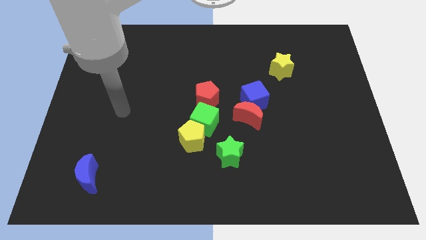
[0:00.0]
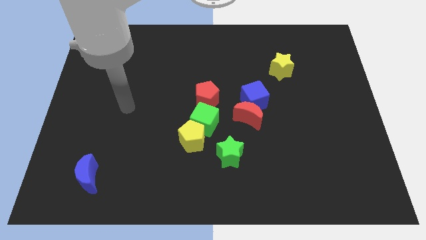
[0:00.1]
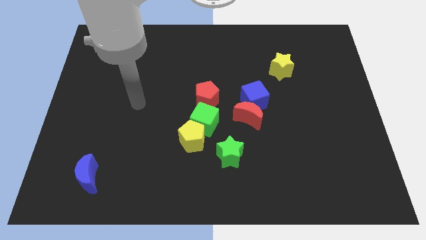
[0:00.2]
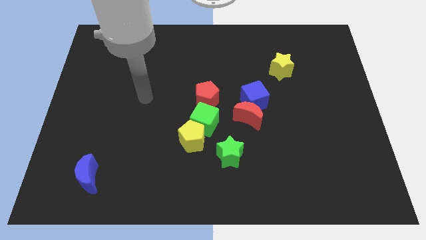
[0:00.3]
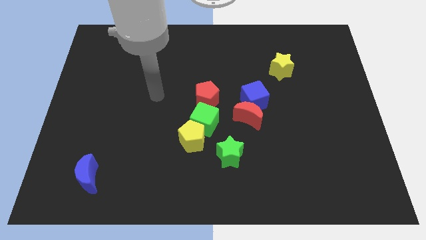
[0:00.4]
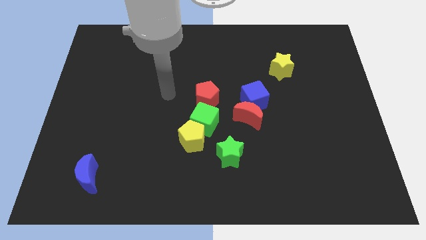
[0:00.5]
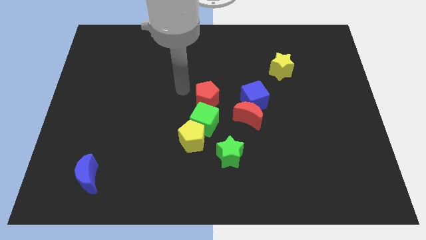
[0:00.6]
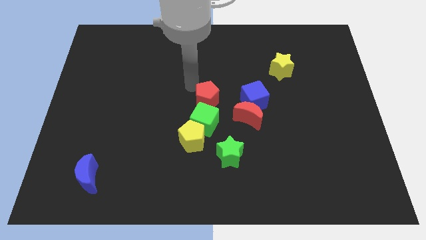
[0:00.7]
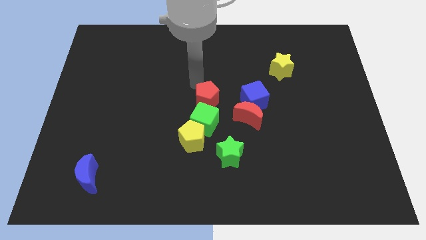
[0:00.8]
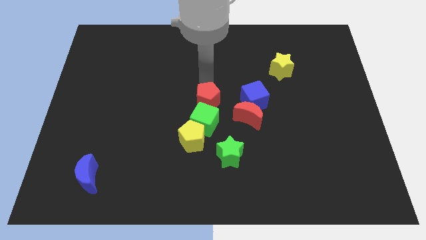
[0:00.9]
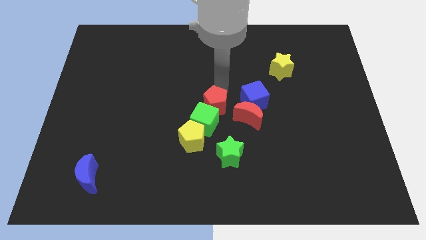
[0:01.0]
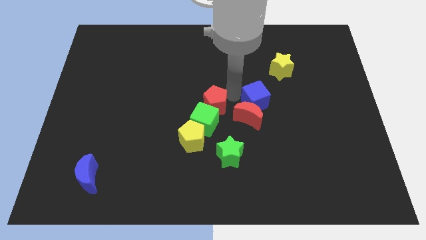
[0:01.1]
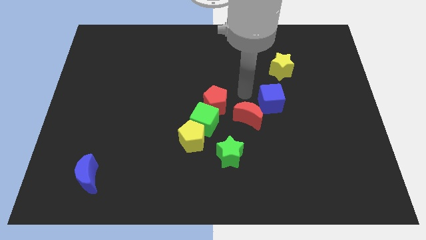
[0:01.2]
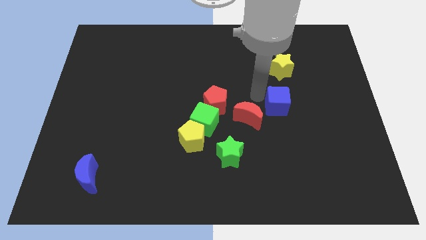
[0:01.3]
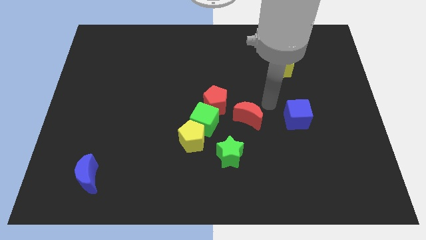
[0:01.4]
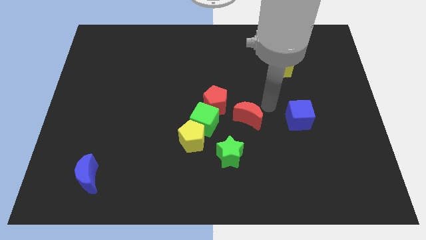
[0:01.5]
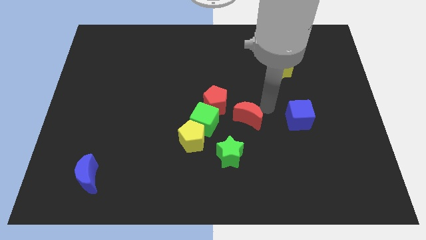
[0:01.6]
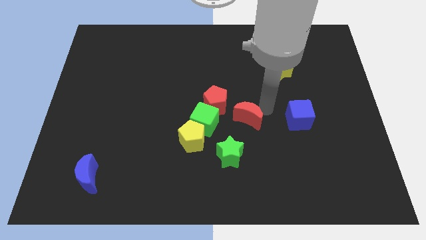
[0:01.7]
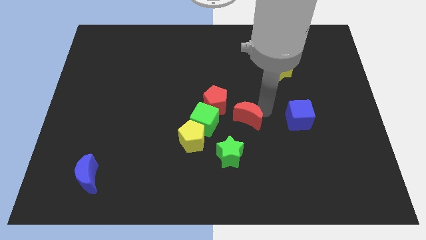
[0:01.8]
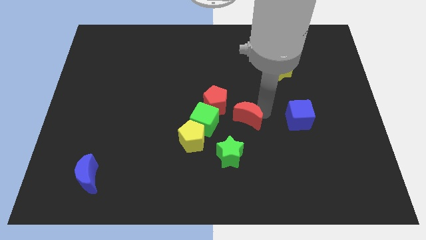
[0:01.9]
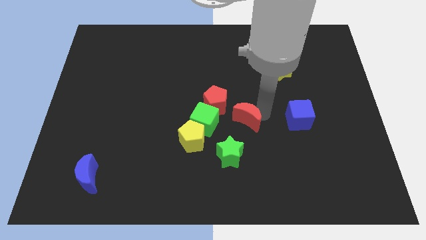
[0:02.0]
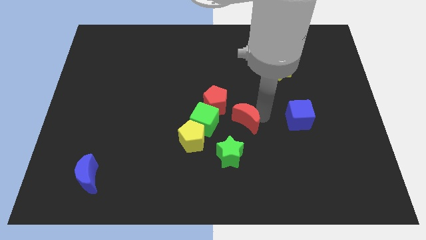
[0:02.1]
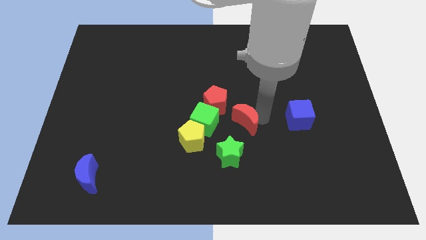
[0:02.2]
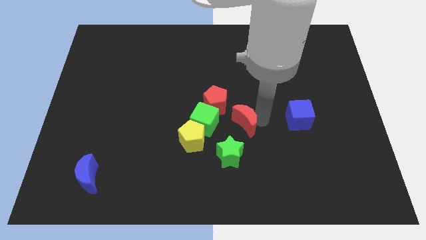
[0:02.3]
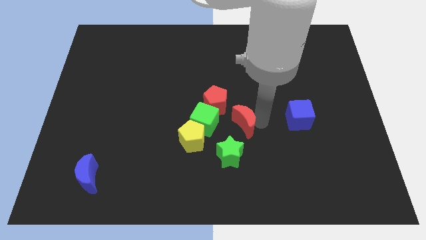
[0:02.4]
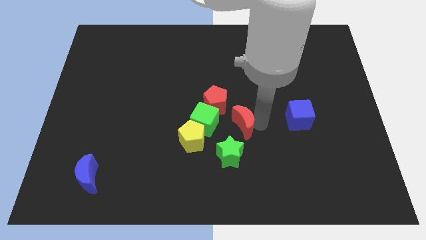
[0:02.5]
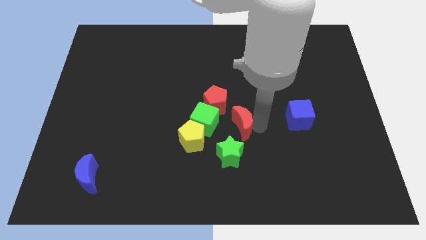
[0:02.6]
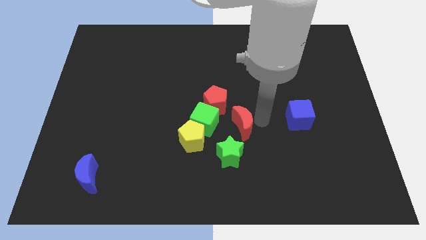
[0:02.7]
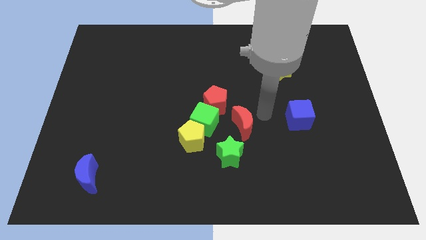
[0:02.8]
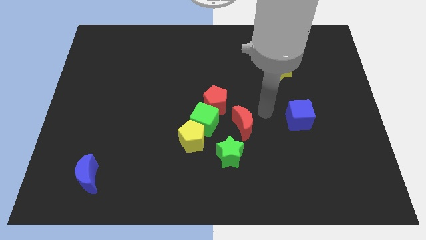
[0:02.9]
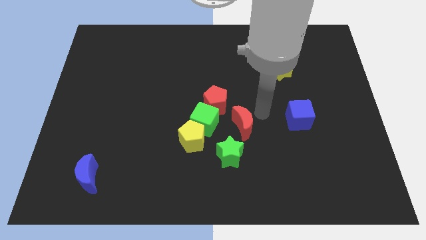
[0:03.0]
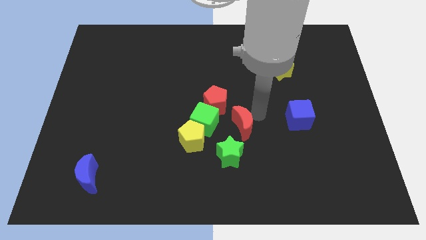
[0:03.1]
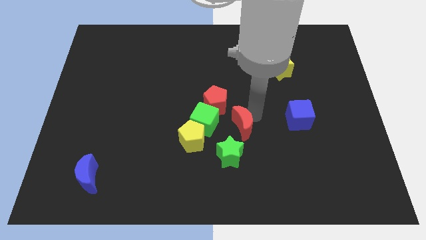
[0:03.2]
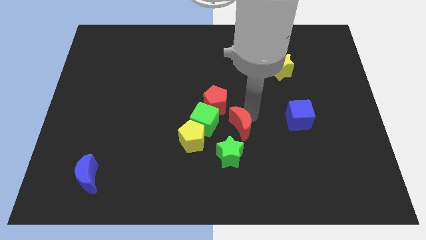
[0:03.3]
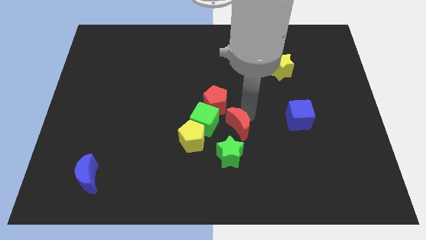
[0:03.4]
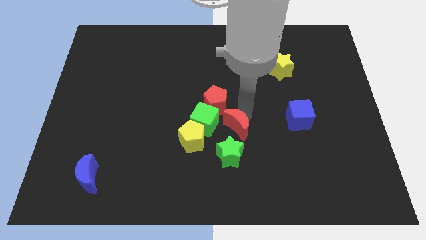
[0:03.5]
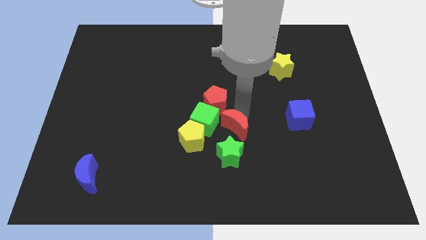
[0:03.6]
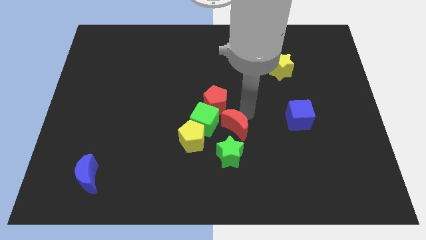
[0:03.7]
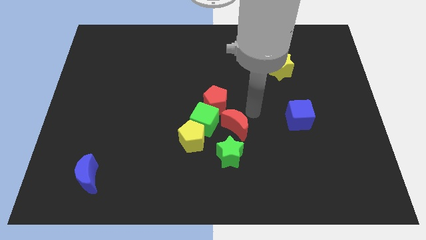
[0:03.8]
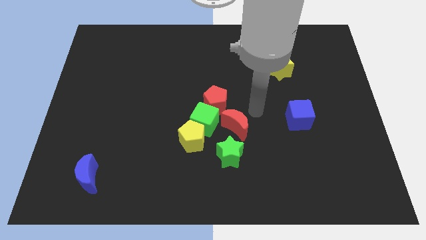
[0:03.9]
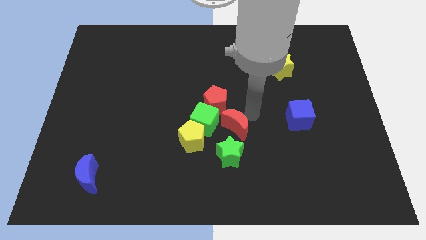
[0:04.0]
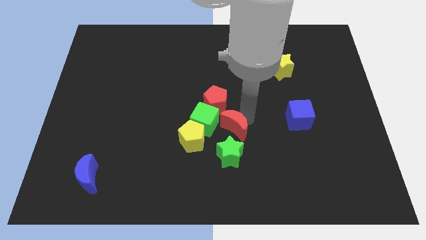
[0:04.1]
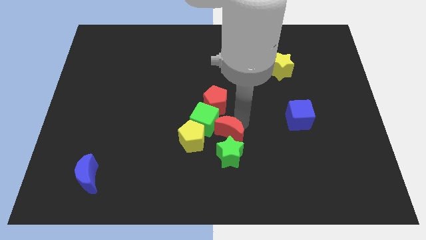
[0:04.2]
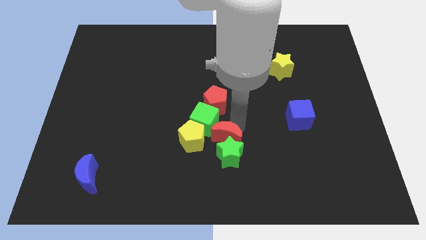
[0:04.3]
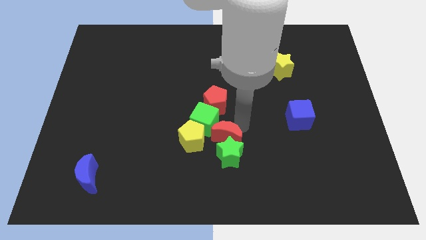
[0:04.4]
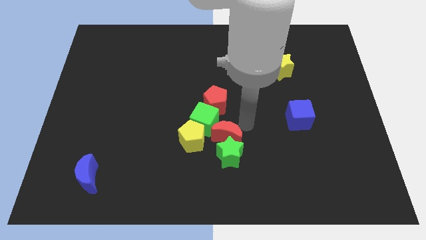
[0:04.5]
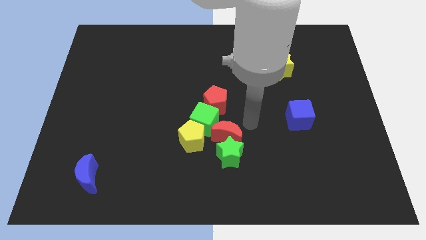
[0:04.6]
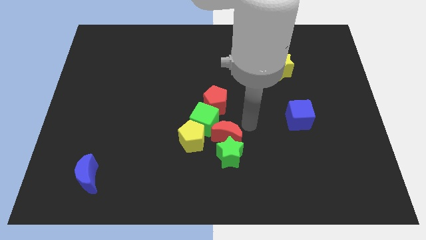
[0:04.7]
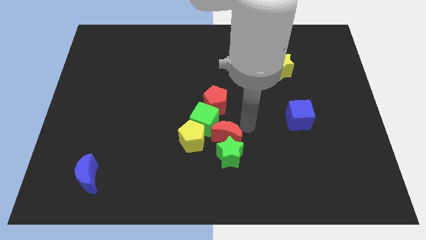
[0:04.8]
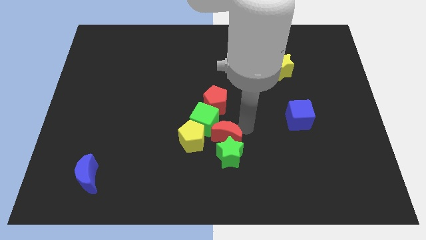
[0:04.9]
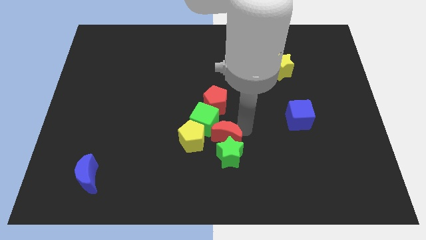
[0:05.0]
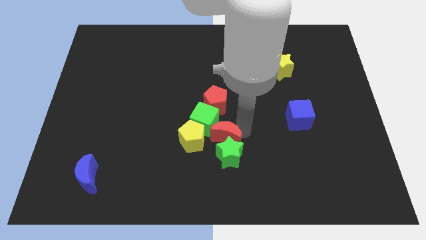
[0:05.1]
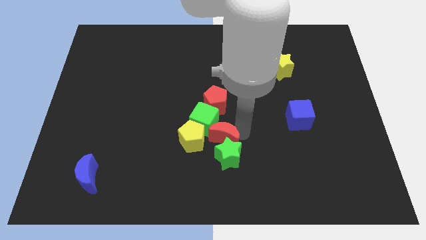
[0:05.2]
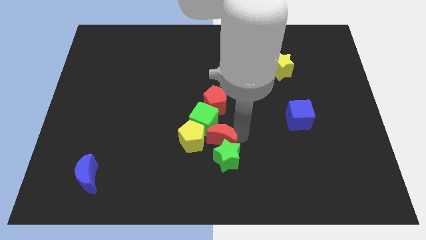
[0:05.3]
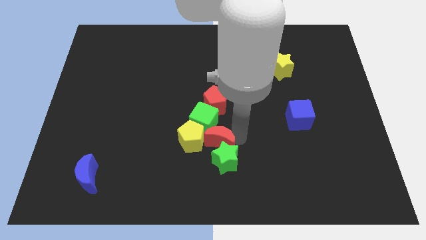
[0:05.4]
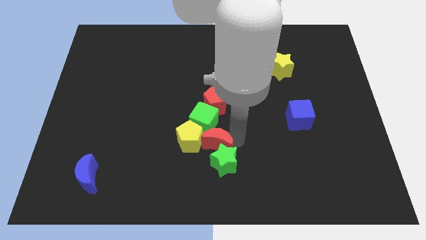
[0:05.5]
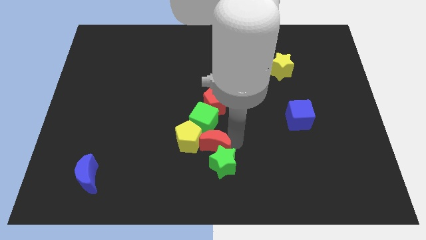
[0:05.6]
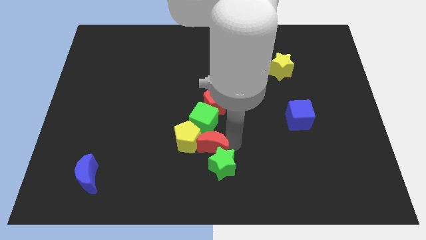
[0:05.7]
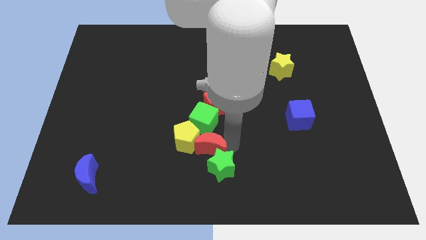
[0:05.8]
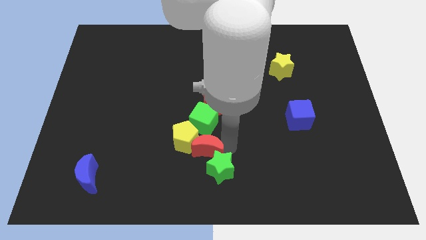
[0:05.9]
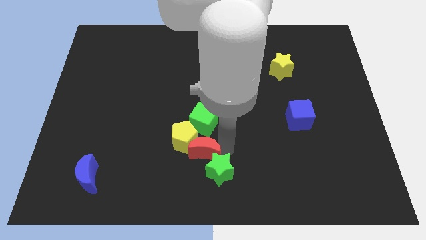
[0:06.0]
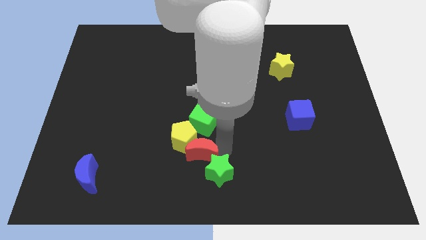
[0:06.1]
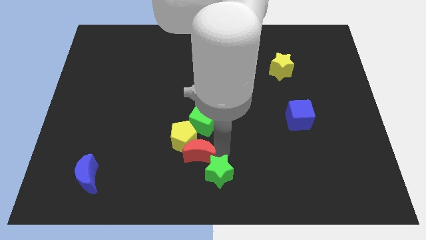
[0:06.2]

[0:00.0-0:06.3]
push the red moon a little left

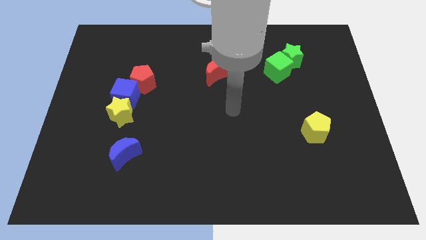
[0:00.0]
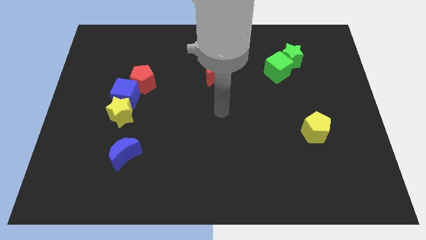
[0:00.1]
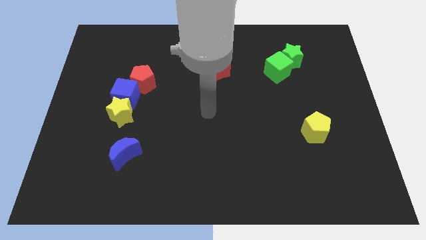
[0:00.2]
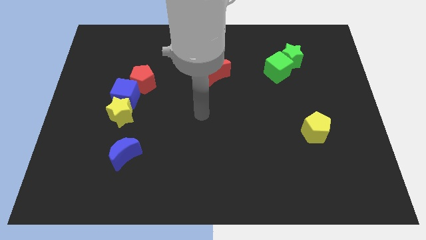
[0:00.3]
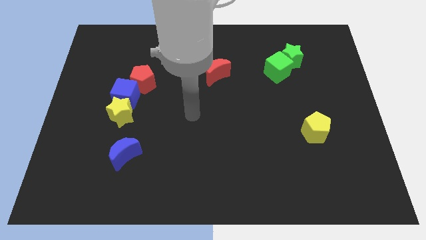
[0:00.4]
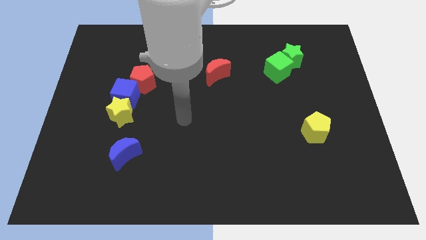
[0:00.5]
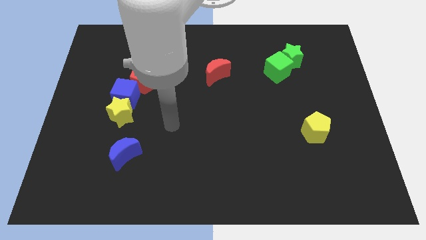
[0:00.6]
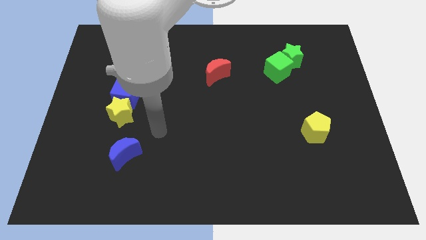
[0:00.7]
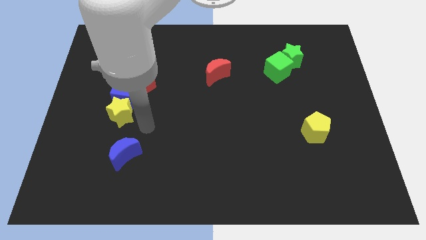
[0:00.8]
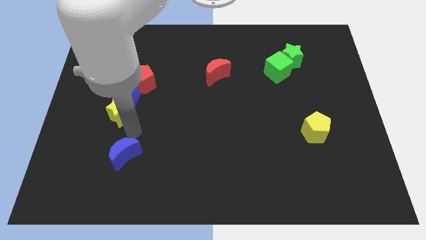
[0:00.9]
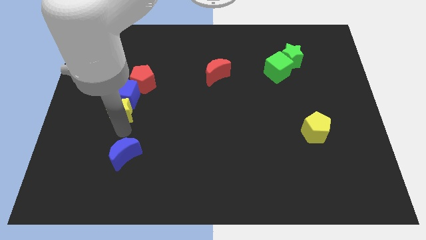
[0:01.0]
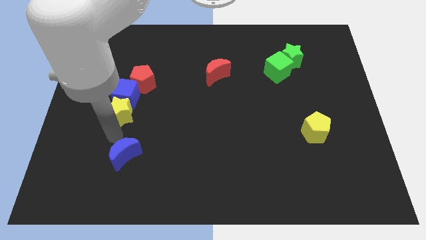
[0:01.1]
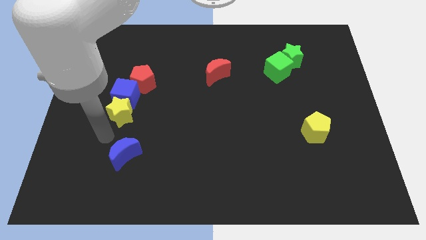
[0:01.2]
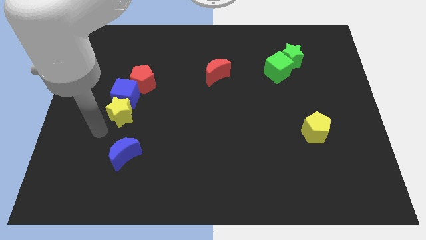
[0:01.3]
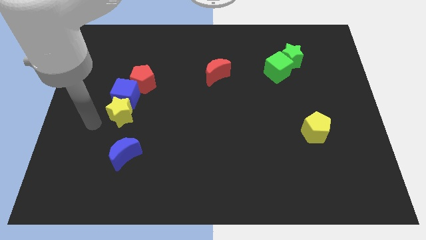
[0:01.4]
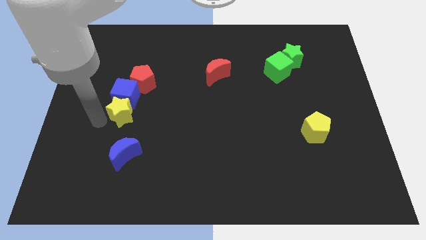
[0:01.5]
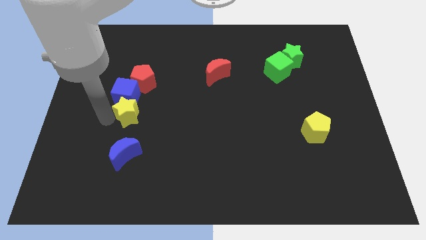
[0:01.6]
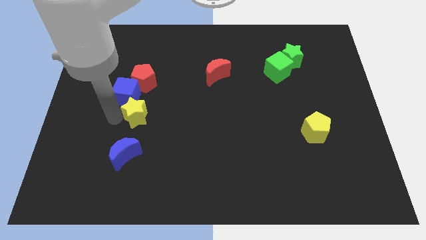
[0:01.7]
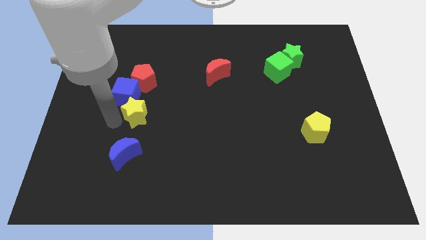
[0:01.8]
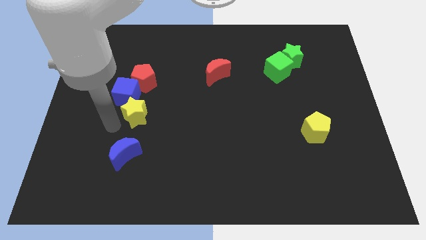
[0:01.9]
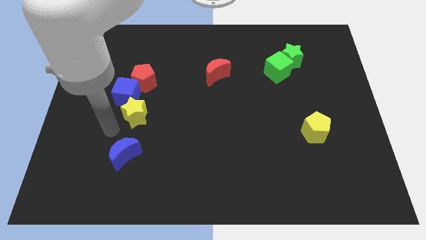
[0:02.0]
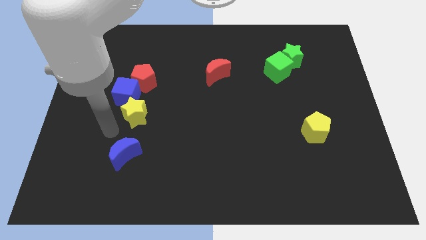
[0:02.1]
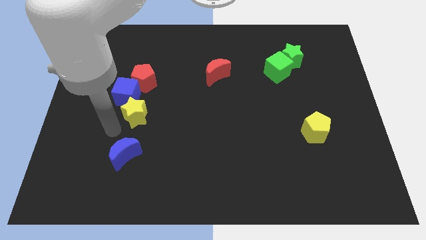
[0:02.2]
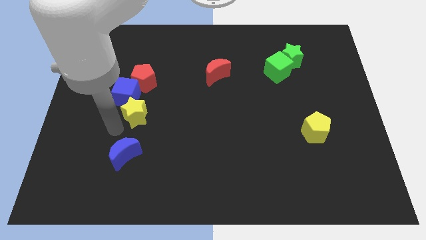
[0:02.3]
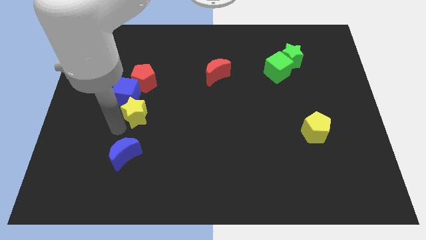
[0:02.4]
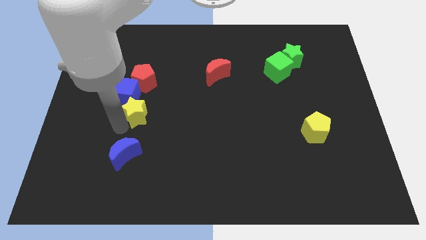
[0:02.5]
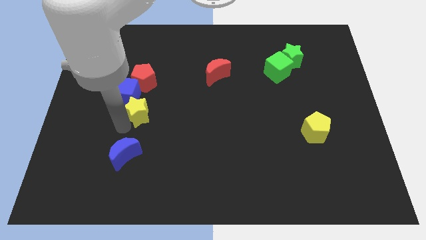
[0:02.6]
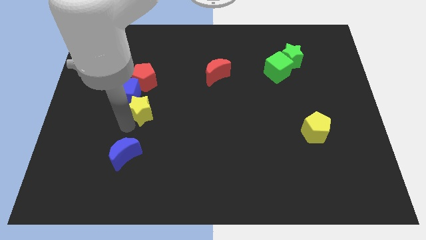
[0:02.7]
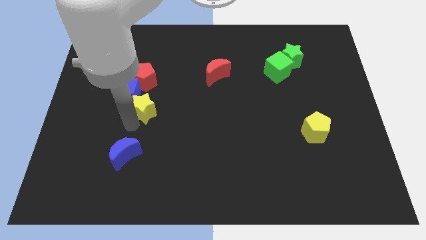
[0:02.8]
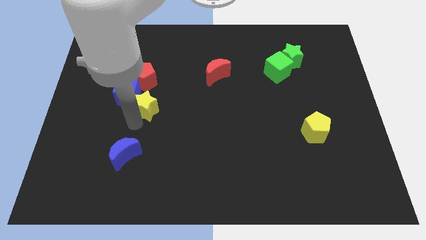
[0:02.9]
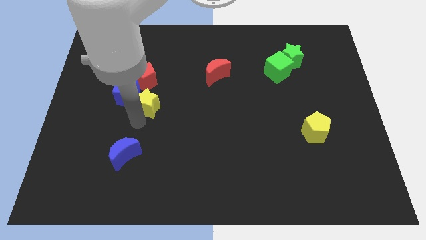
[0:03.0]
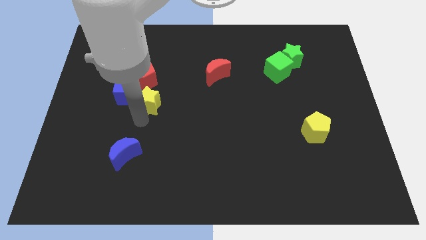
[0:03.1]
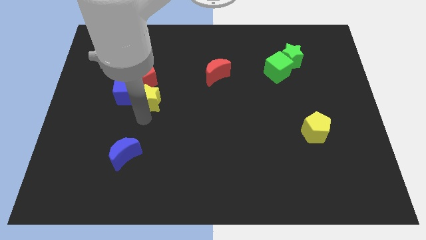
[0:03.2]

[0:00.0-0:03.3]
move the yellow star a little upwards and to the right
